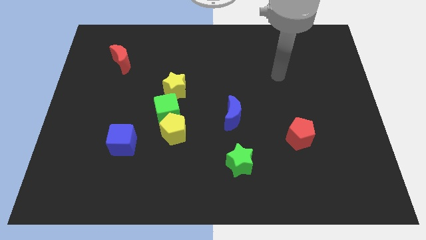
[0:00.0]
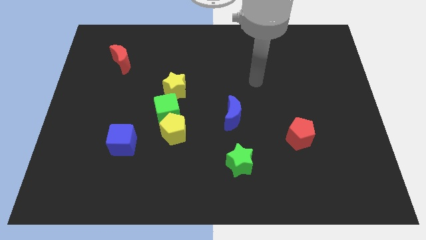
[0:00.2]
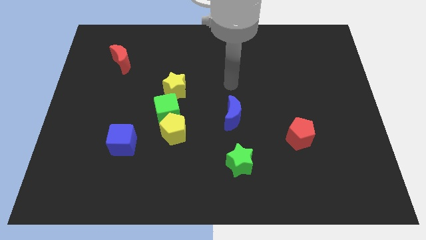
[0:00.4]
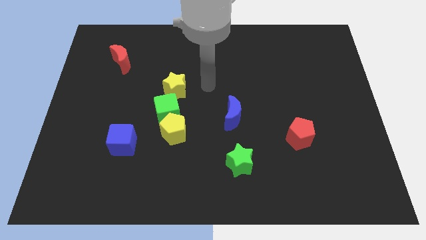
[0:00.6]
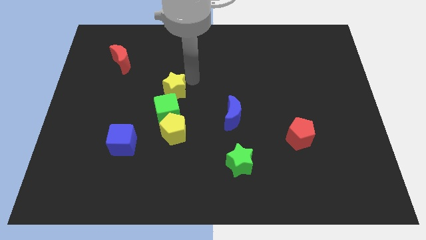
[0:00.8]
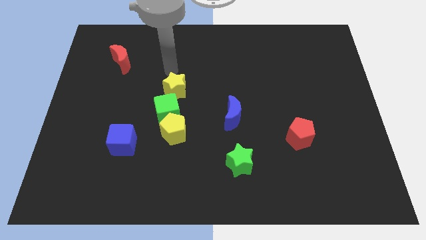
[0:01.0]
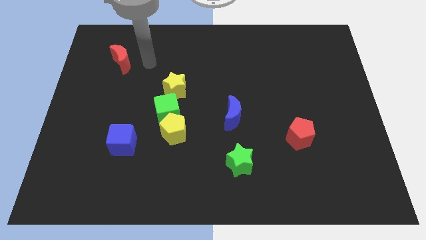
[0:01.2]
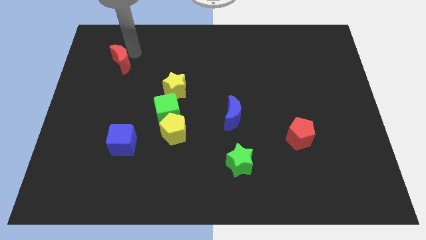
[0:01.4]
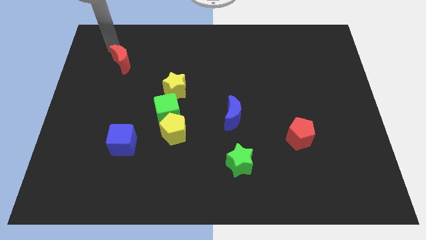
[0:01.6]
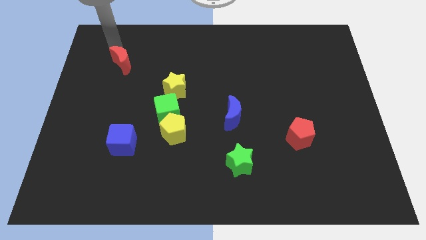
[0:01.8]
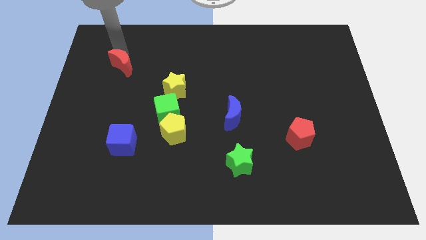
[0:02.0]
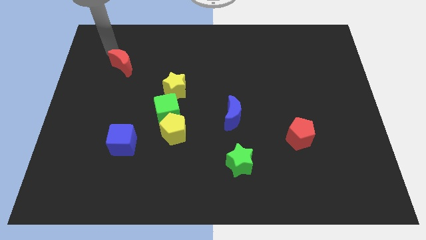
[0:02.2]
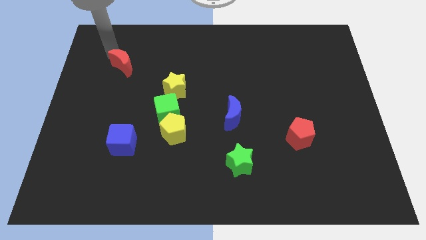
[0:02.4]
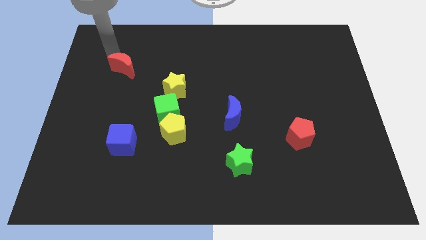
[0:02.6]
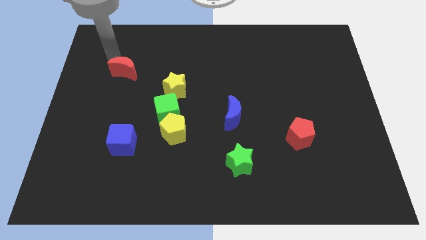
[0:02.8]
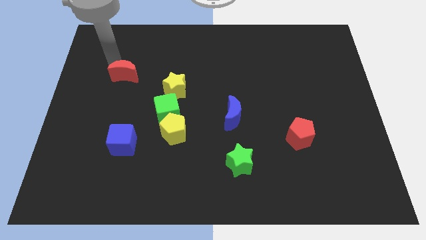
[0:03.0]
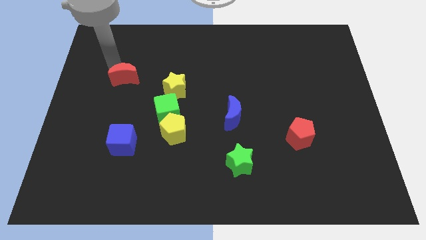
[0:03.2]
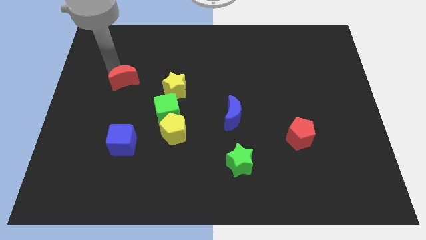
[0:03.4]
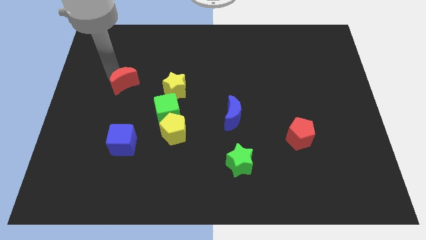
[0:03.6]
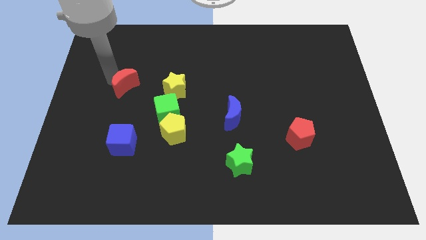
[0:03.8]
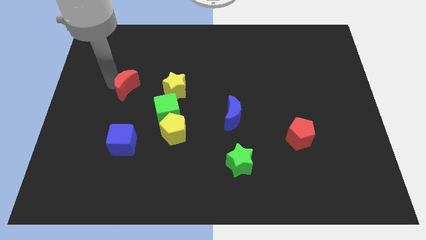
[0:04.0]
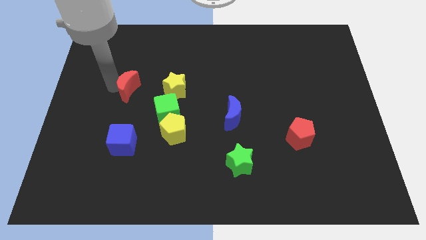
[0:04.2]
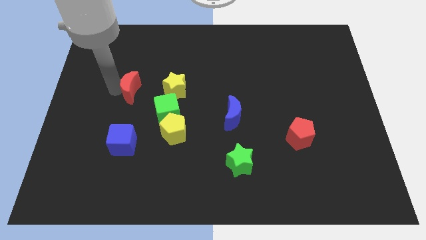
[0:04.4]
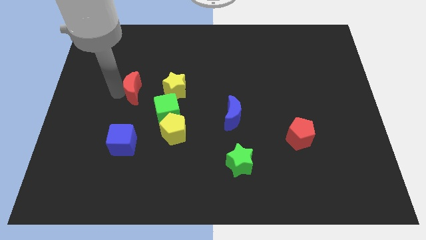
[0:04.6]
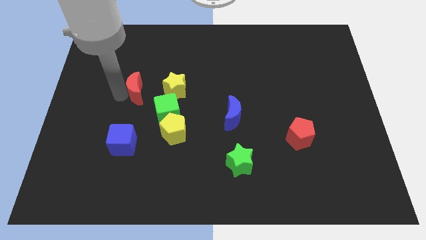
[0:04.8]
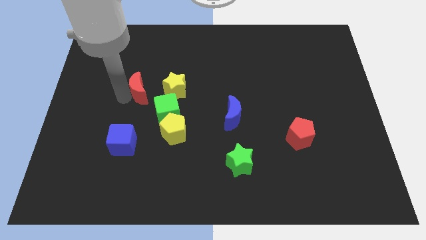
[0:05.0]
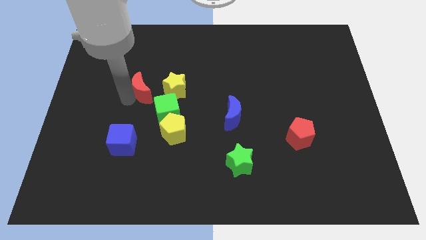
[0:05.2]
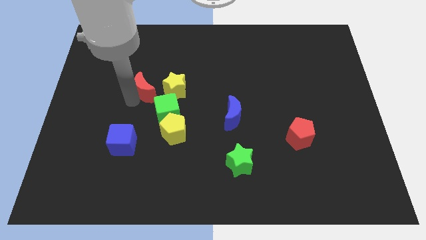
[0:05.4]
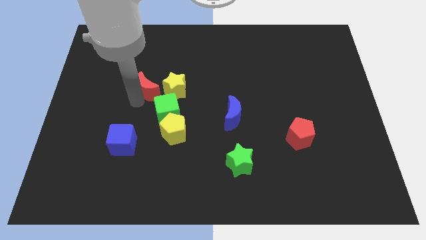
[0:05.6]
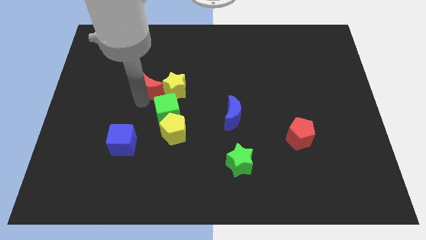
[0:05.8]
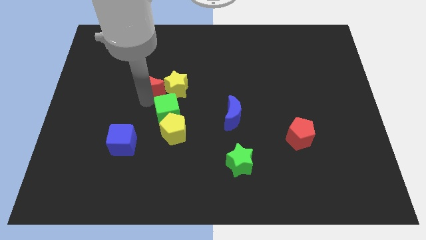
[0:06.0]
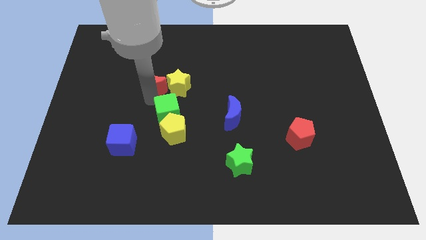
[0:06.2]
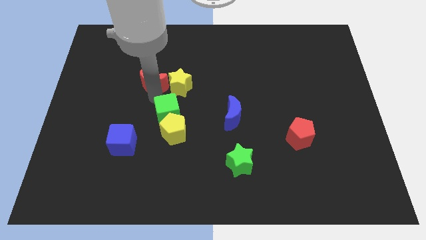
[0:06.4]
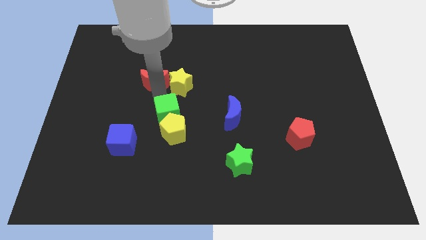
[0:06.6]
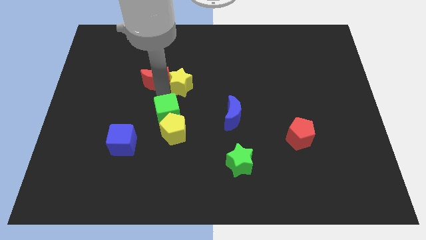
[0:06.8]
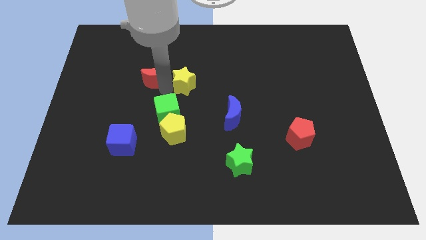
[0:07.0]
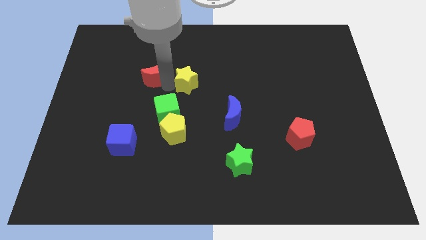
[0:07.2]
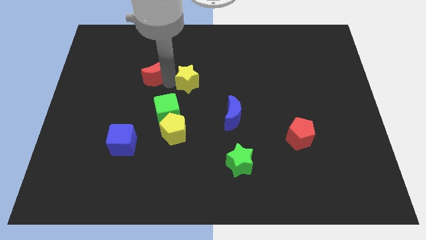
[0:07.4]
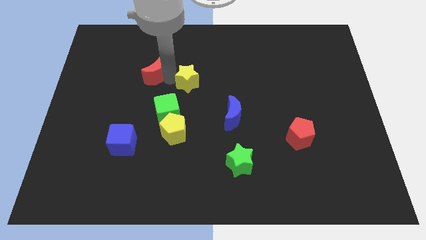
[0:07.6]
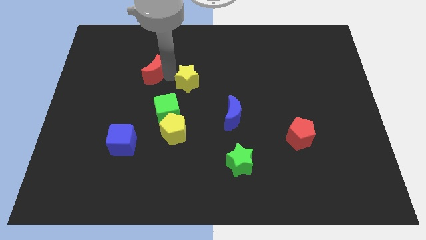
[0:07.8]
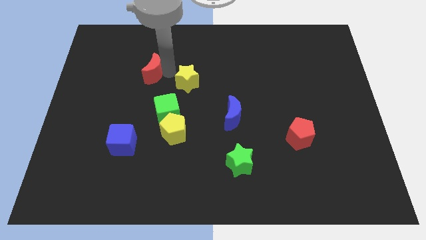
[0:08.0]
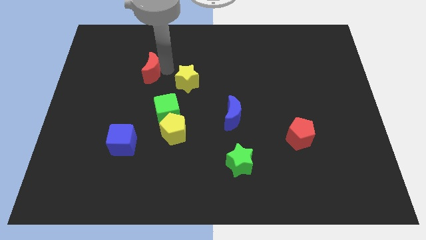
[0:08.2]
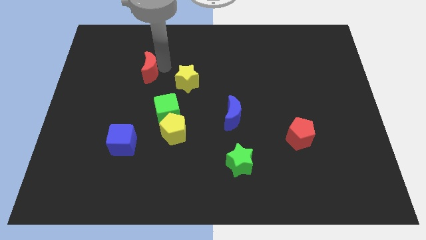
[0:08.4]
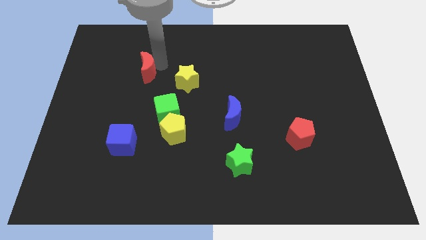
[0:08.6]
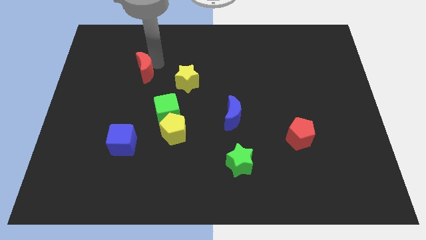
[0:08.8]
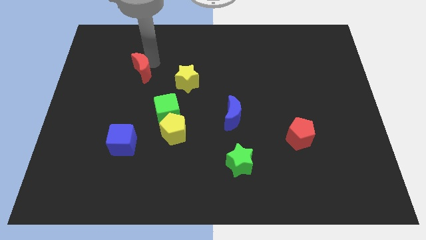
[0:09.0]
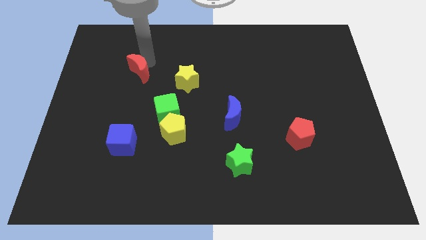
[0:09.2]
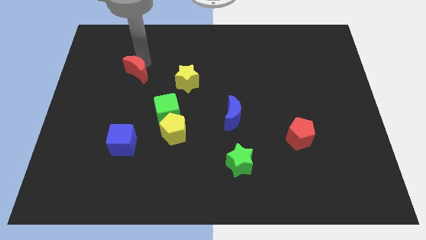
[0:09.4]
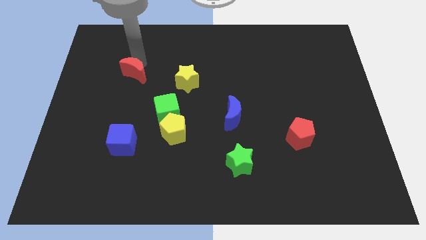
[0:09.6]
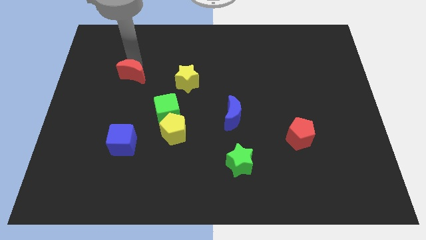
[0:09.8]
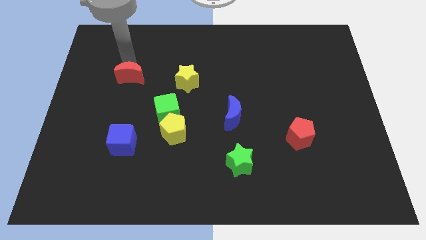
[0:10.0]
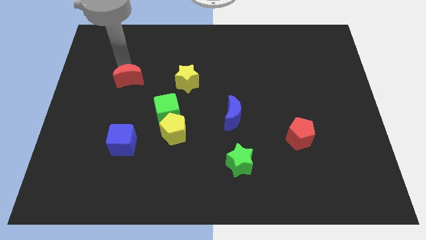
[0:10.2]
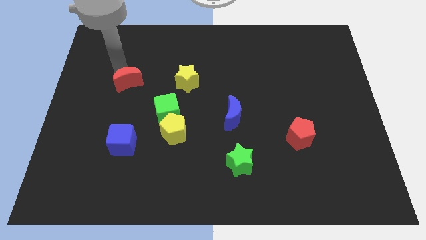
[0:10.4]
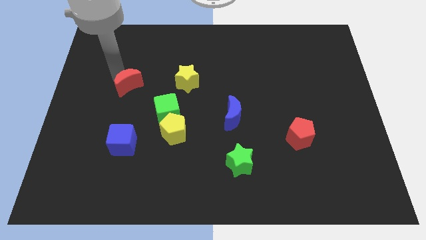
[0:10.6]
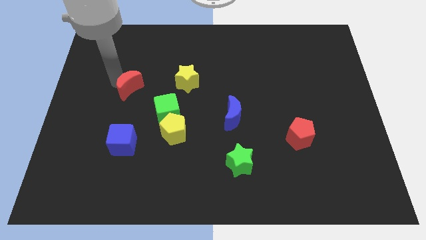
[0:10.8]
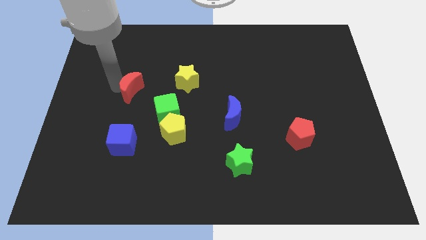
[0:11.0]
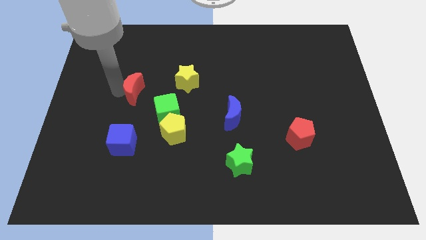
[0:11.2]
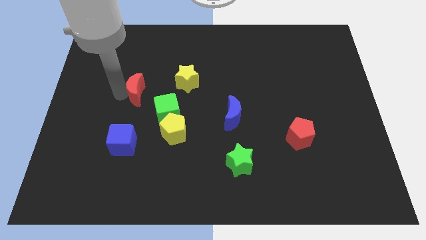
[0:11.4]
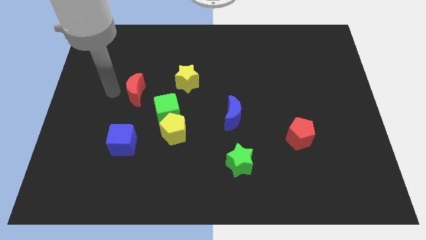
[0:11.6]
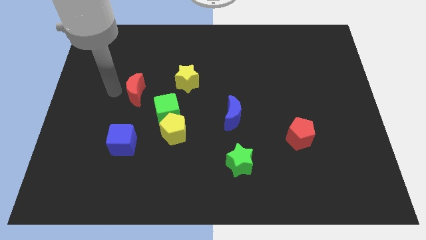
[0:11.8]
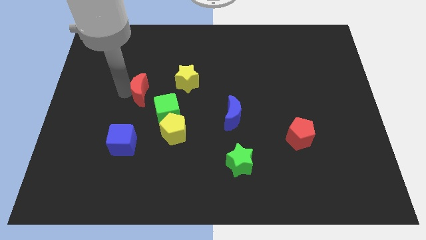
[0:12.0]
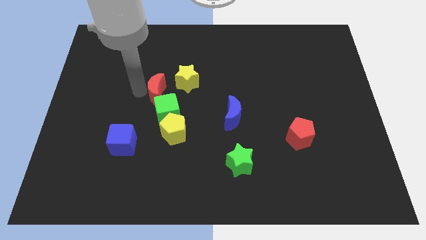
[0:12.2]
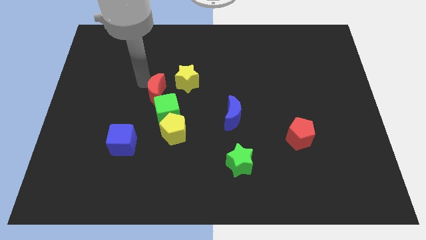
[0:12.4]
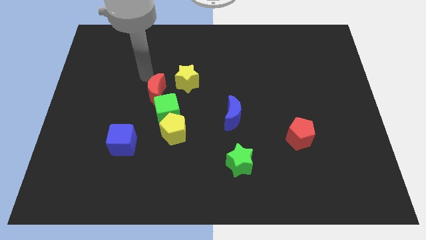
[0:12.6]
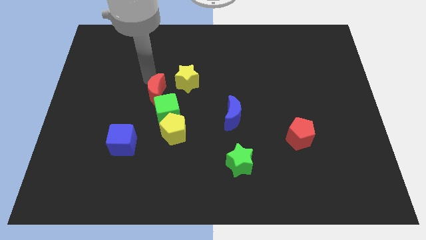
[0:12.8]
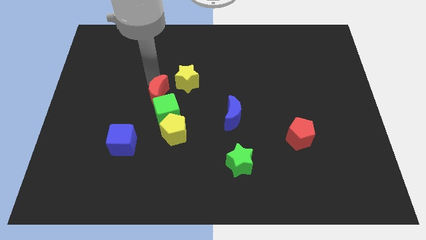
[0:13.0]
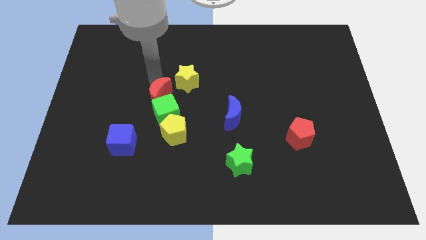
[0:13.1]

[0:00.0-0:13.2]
slide the red moon towards the green cube
